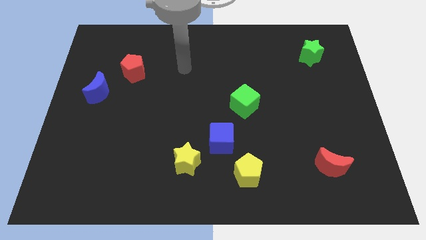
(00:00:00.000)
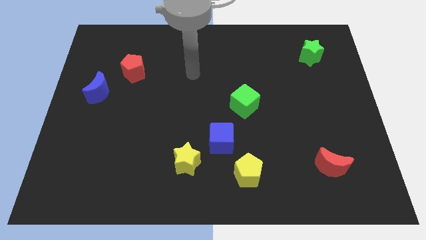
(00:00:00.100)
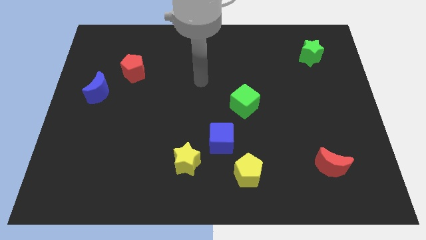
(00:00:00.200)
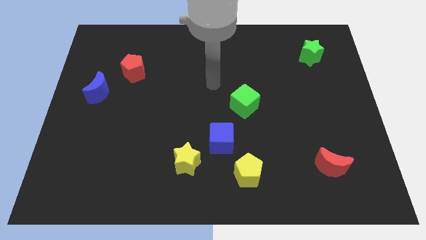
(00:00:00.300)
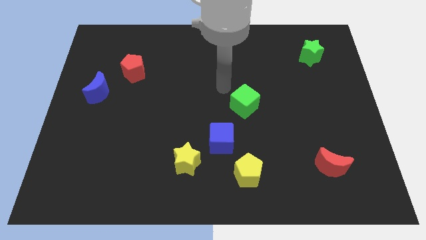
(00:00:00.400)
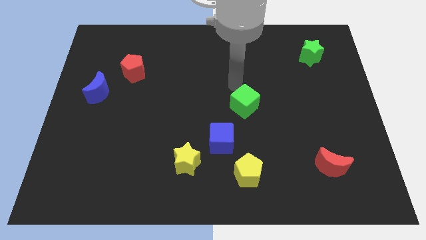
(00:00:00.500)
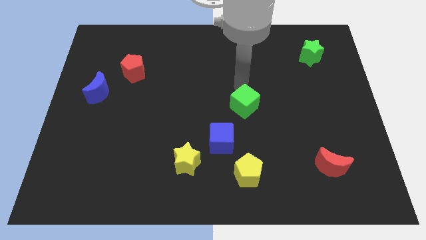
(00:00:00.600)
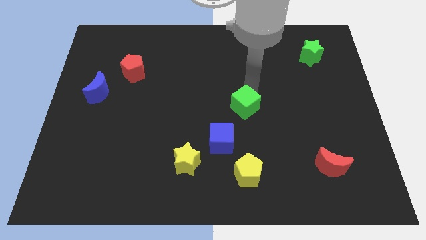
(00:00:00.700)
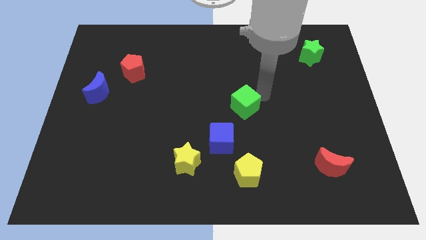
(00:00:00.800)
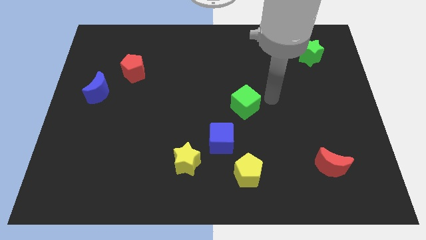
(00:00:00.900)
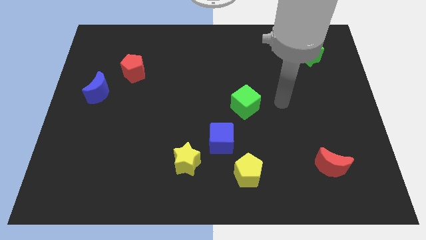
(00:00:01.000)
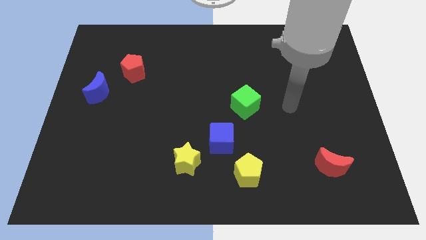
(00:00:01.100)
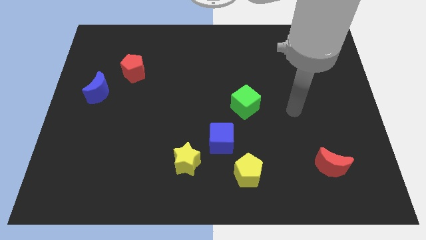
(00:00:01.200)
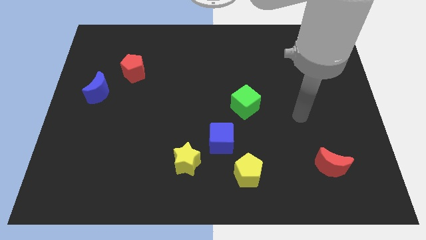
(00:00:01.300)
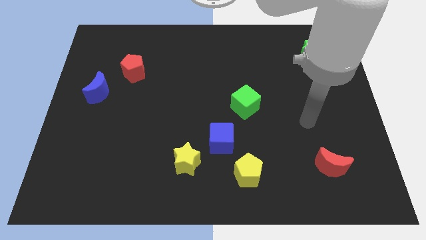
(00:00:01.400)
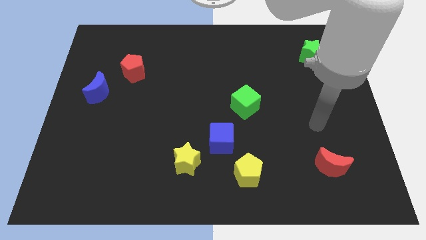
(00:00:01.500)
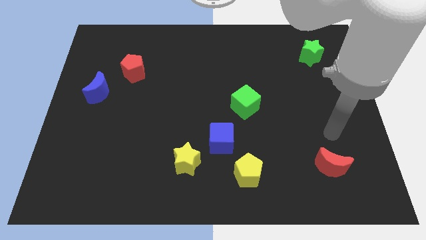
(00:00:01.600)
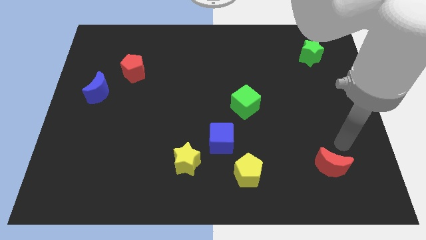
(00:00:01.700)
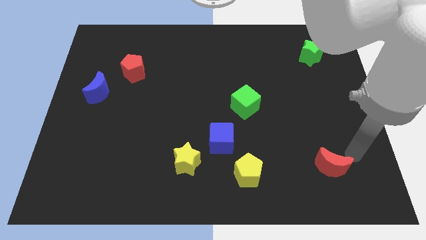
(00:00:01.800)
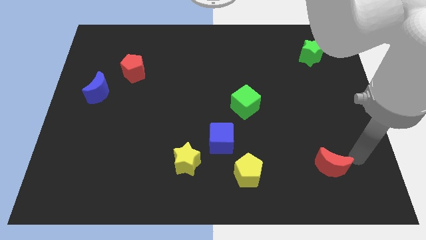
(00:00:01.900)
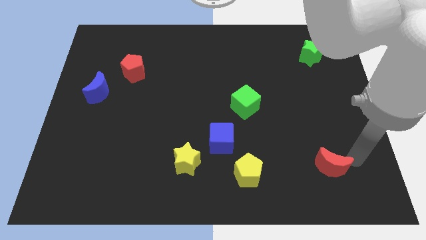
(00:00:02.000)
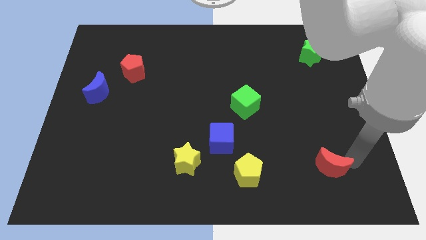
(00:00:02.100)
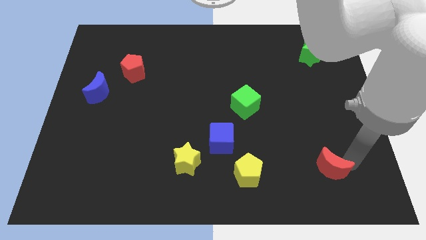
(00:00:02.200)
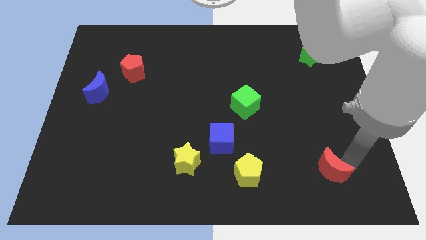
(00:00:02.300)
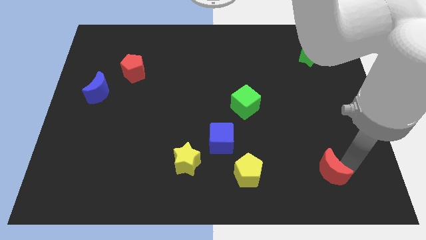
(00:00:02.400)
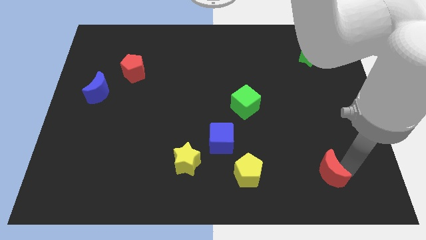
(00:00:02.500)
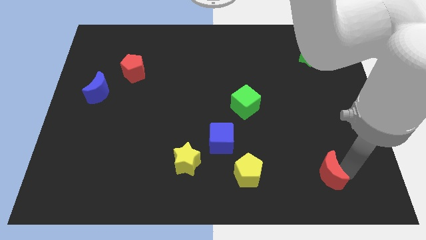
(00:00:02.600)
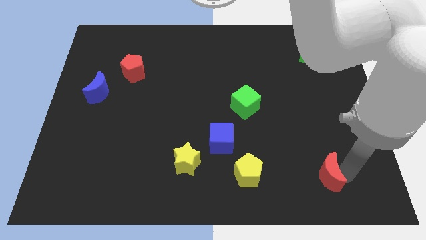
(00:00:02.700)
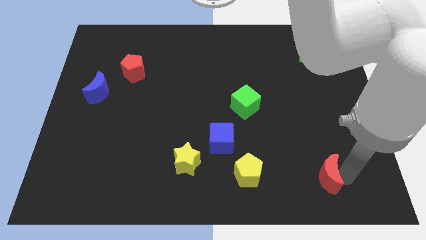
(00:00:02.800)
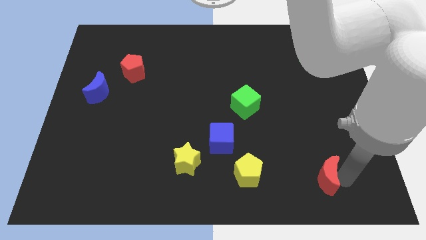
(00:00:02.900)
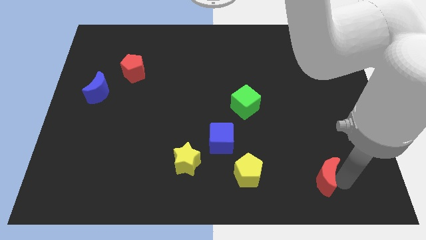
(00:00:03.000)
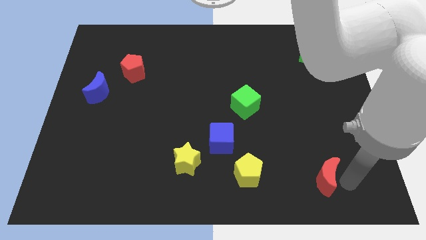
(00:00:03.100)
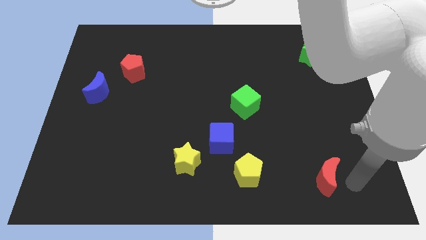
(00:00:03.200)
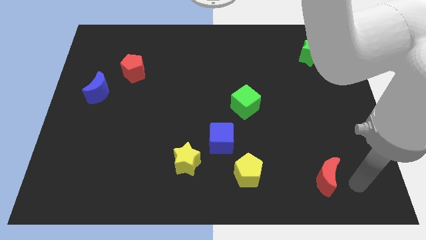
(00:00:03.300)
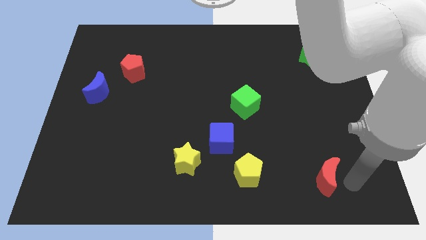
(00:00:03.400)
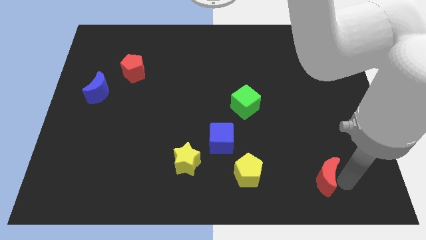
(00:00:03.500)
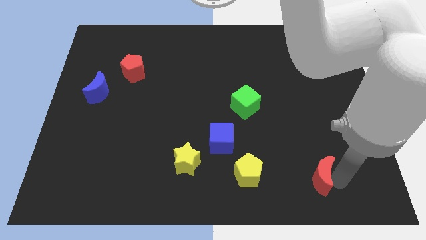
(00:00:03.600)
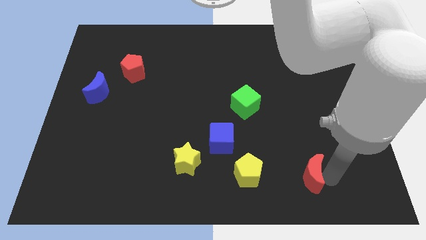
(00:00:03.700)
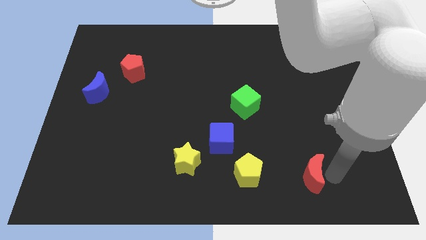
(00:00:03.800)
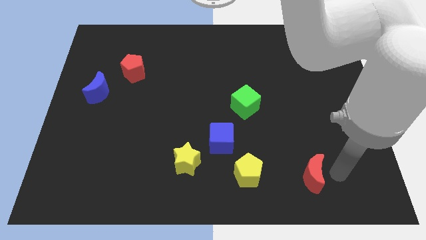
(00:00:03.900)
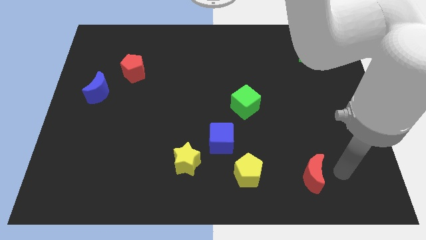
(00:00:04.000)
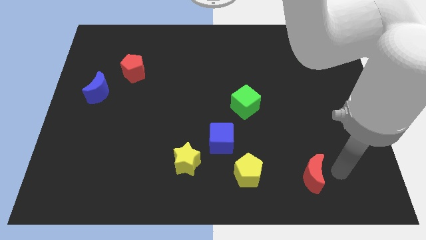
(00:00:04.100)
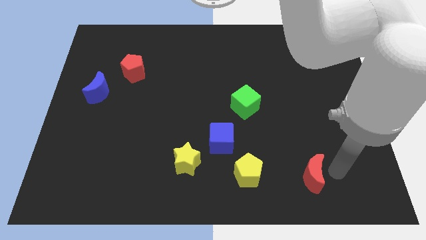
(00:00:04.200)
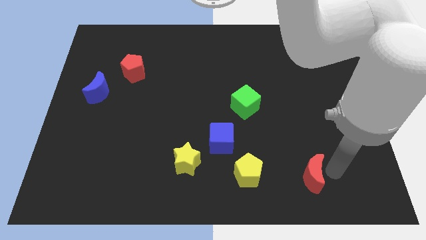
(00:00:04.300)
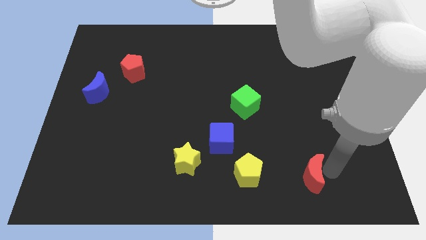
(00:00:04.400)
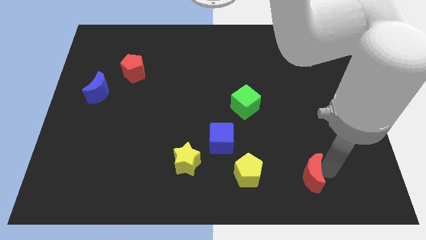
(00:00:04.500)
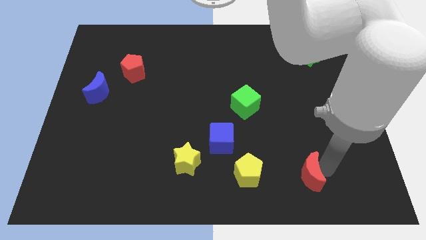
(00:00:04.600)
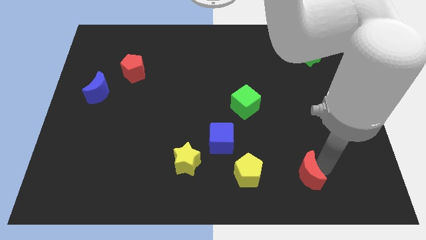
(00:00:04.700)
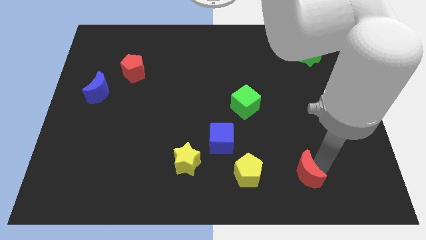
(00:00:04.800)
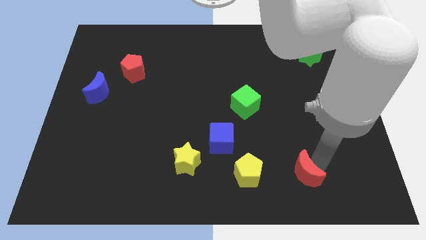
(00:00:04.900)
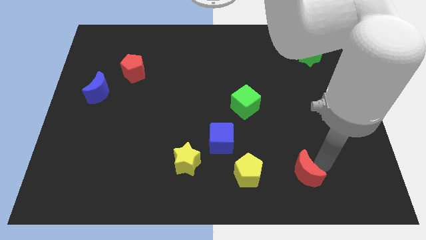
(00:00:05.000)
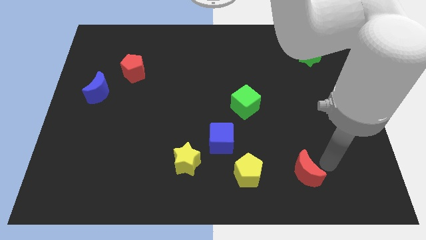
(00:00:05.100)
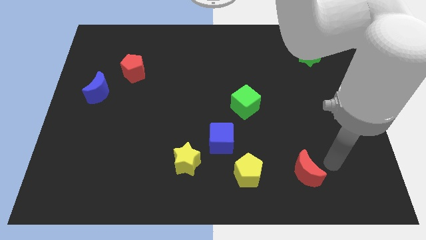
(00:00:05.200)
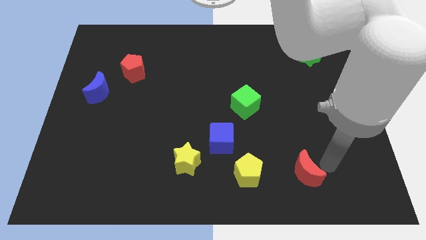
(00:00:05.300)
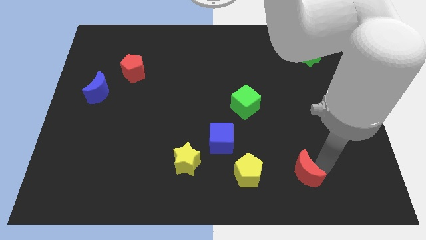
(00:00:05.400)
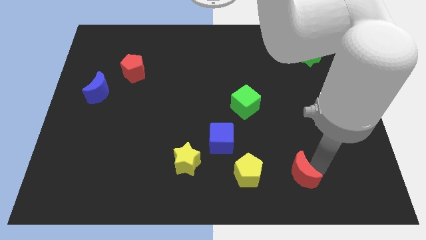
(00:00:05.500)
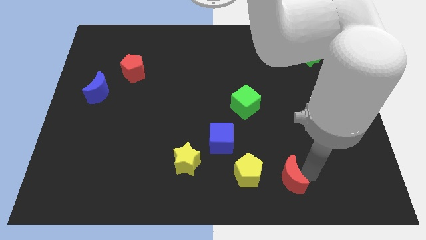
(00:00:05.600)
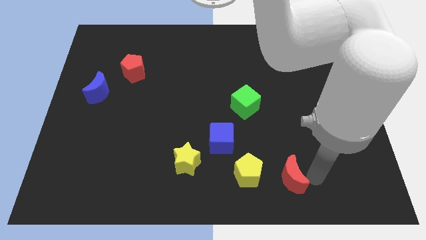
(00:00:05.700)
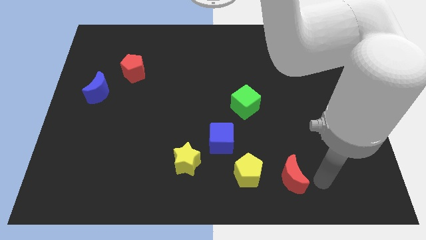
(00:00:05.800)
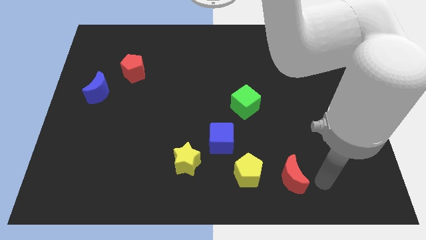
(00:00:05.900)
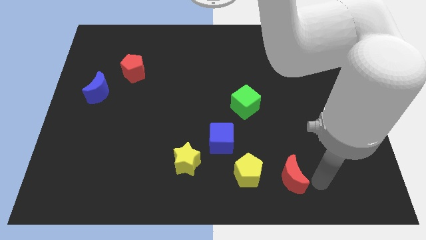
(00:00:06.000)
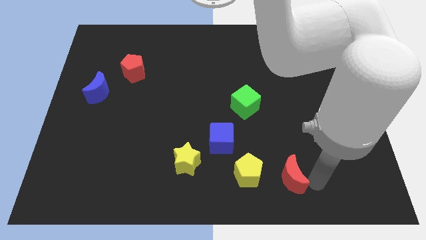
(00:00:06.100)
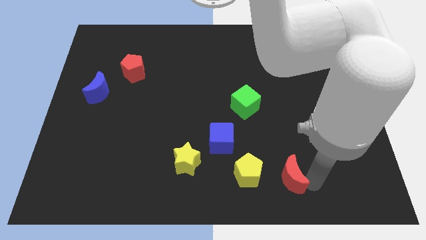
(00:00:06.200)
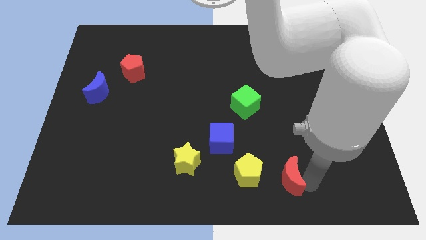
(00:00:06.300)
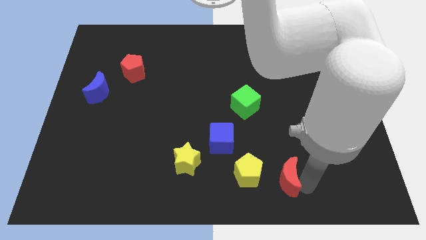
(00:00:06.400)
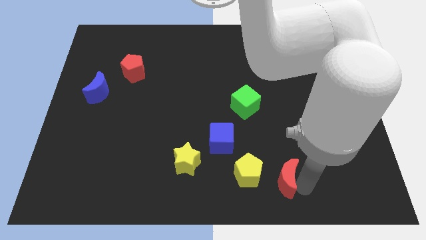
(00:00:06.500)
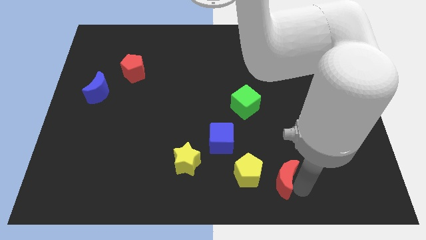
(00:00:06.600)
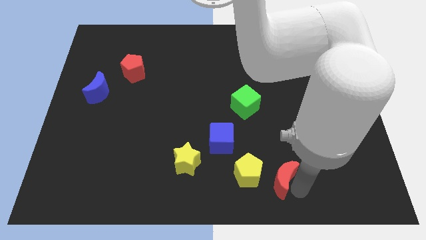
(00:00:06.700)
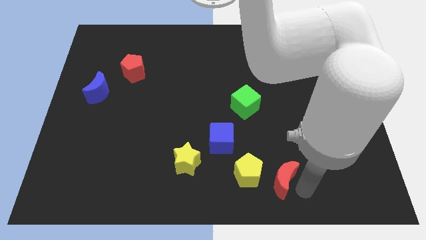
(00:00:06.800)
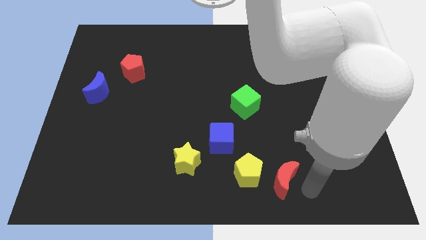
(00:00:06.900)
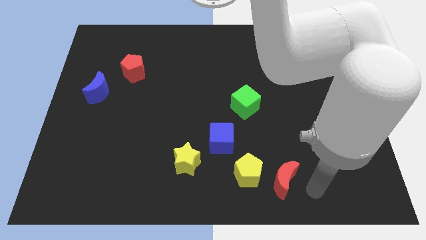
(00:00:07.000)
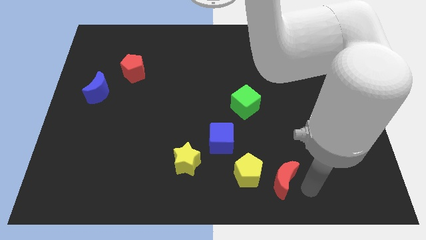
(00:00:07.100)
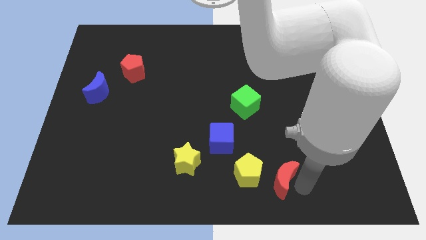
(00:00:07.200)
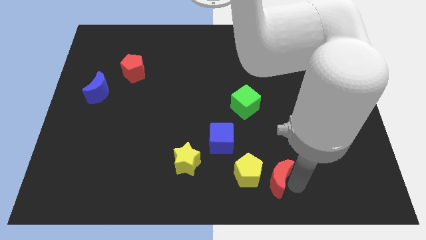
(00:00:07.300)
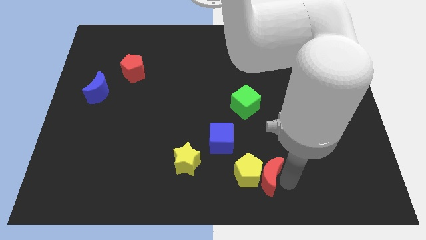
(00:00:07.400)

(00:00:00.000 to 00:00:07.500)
slide the red moon close to the yellow pentagon
